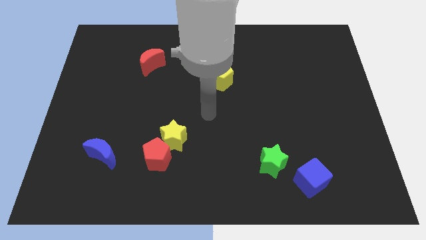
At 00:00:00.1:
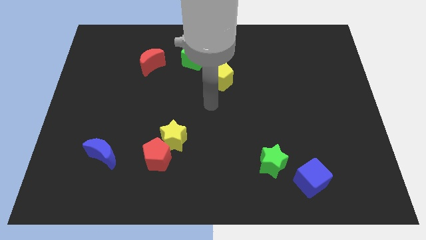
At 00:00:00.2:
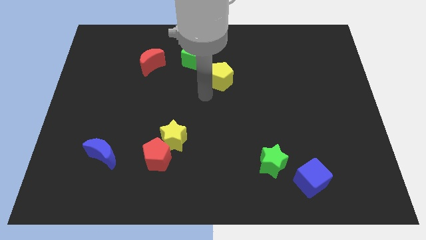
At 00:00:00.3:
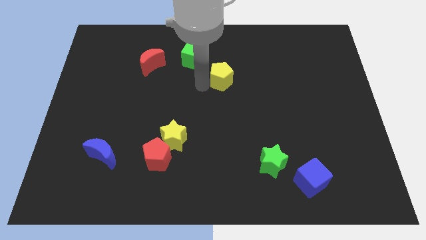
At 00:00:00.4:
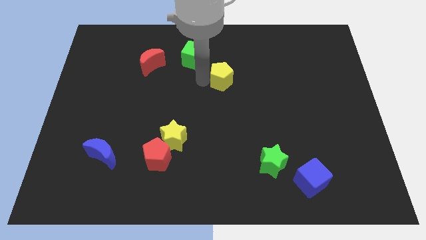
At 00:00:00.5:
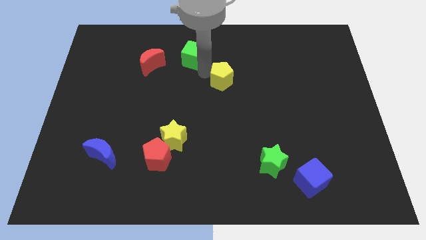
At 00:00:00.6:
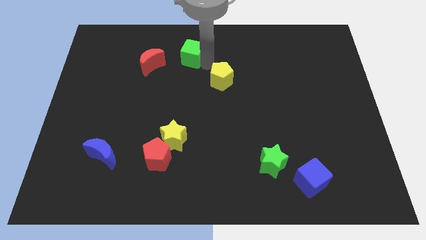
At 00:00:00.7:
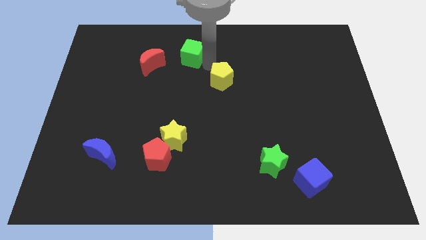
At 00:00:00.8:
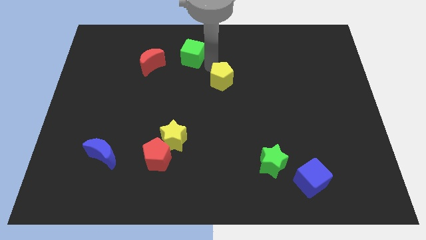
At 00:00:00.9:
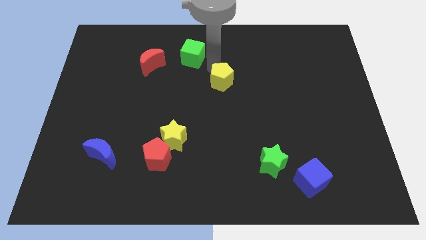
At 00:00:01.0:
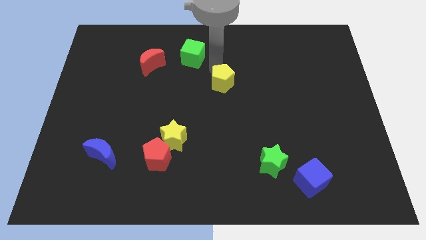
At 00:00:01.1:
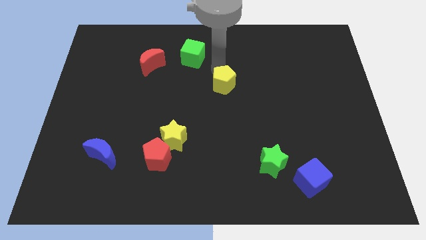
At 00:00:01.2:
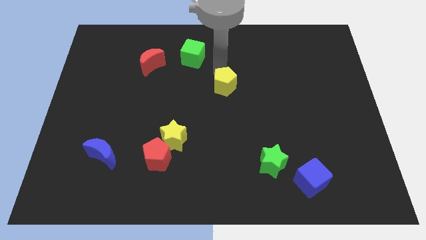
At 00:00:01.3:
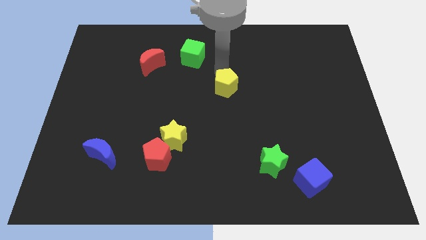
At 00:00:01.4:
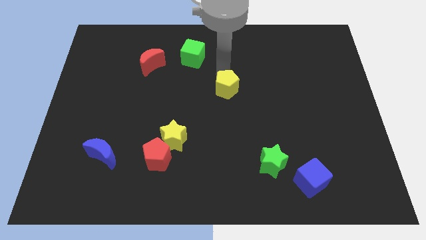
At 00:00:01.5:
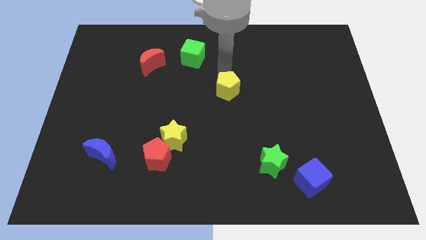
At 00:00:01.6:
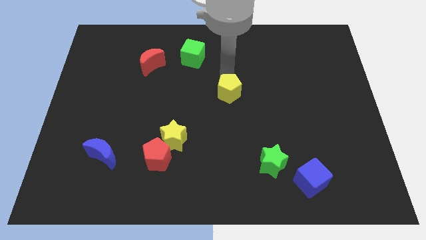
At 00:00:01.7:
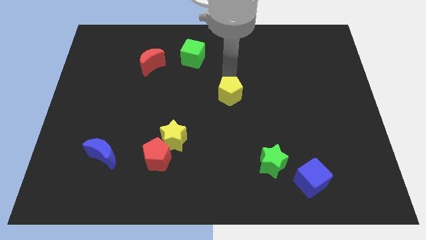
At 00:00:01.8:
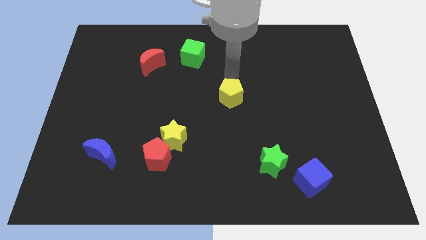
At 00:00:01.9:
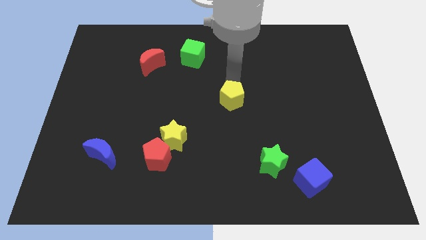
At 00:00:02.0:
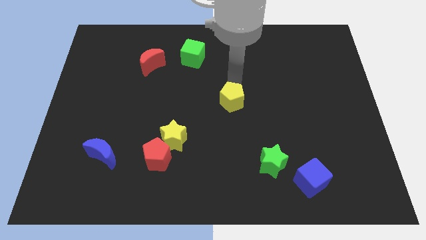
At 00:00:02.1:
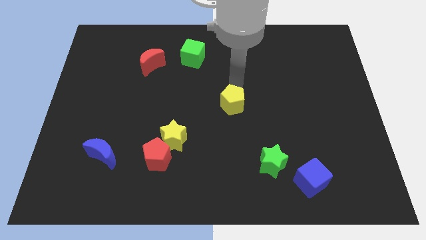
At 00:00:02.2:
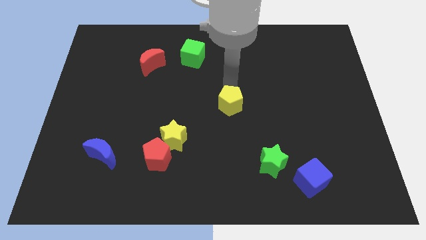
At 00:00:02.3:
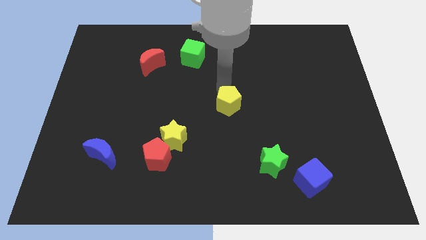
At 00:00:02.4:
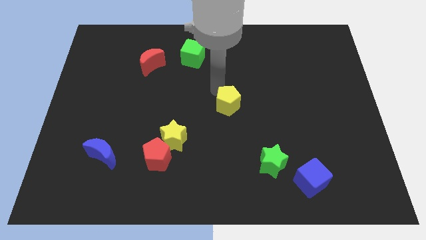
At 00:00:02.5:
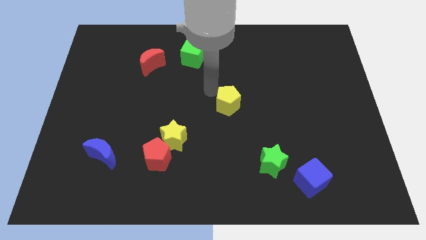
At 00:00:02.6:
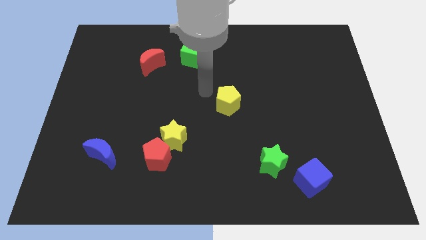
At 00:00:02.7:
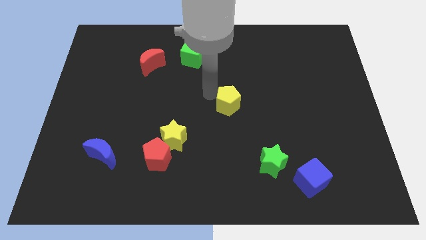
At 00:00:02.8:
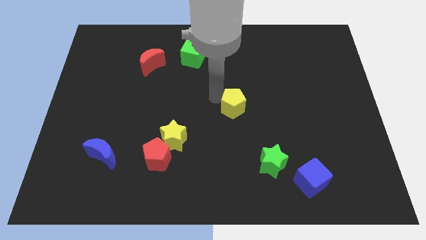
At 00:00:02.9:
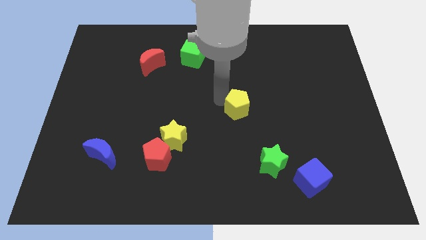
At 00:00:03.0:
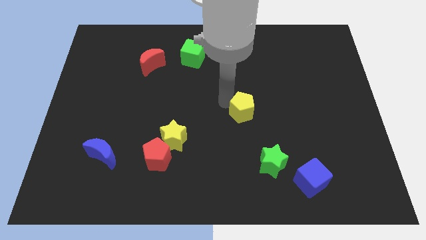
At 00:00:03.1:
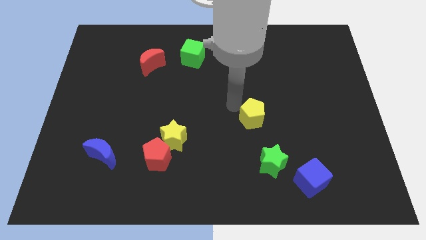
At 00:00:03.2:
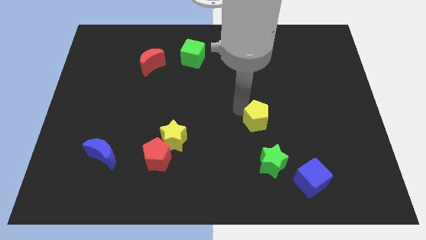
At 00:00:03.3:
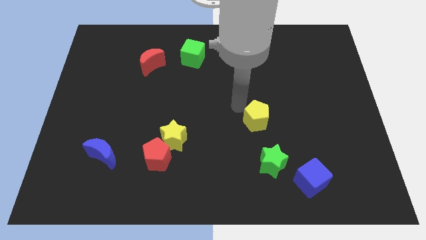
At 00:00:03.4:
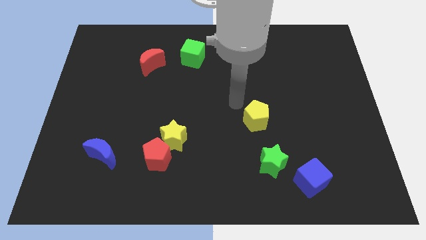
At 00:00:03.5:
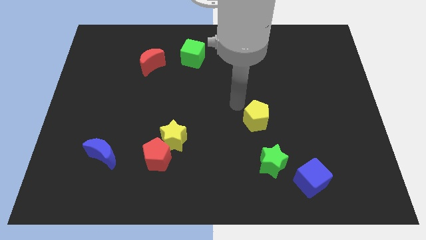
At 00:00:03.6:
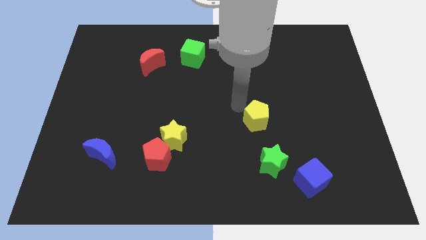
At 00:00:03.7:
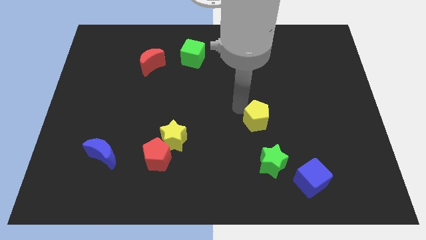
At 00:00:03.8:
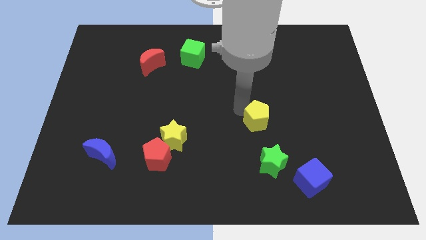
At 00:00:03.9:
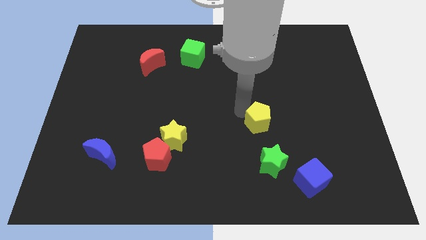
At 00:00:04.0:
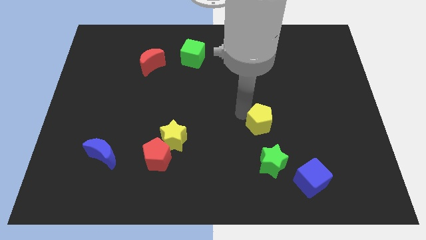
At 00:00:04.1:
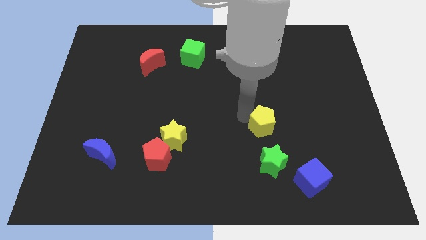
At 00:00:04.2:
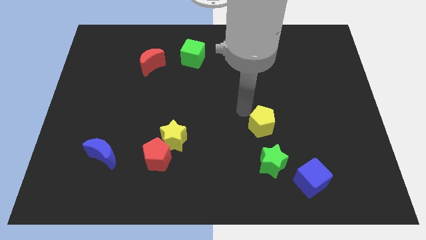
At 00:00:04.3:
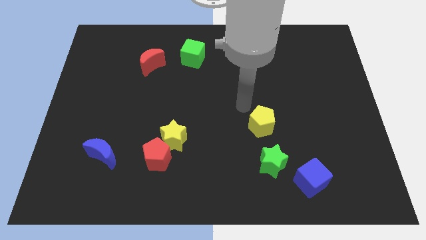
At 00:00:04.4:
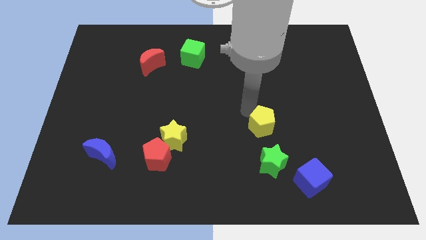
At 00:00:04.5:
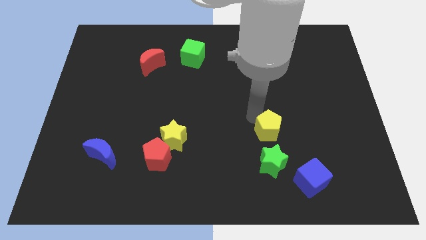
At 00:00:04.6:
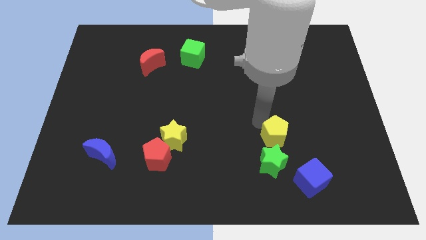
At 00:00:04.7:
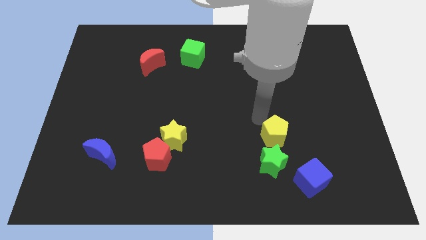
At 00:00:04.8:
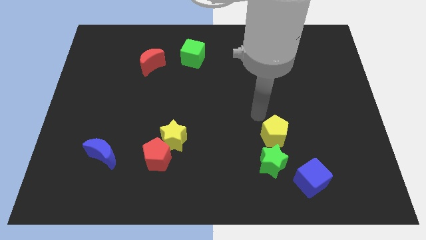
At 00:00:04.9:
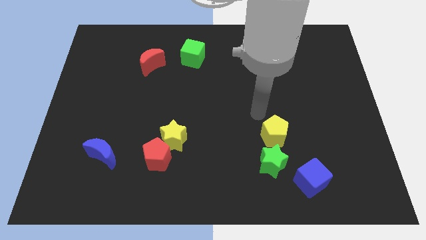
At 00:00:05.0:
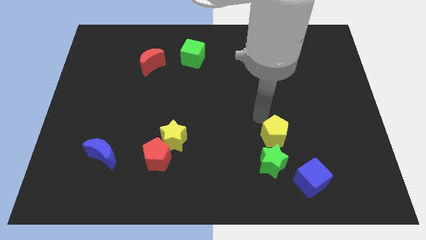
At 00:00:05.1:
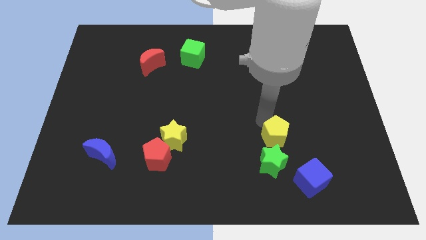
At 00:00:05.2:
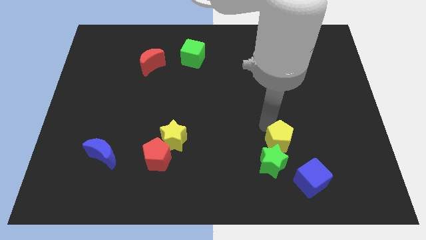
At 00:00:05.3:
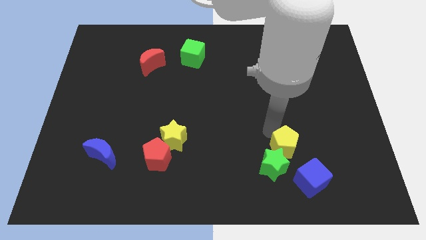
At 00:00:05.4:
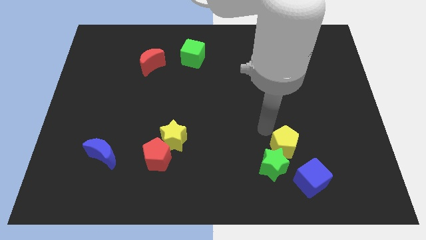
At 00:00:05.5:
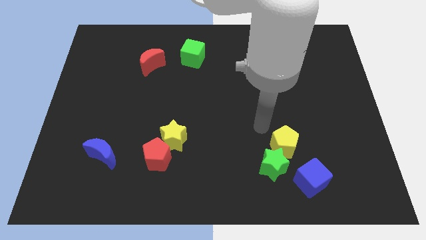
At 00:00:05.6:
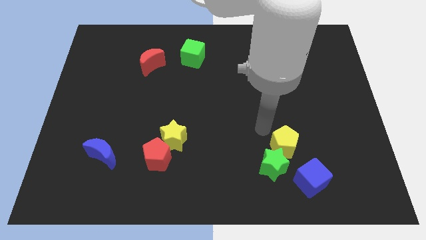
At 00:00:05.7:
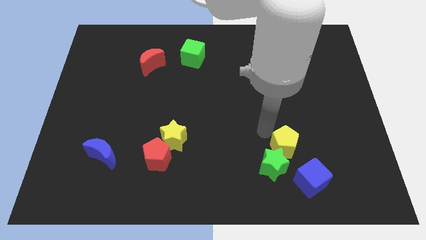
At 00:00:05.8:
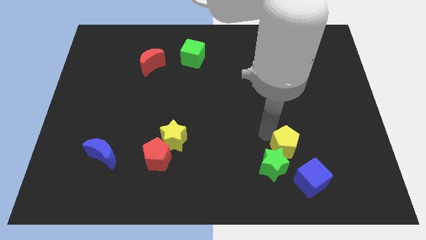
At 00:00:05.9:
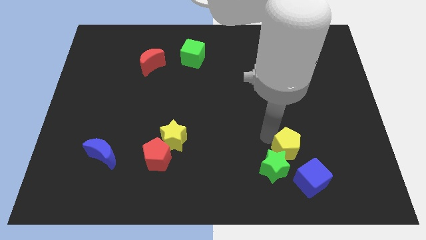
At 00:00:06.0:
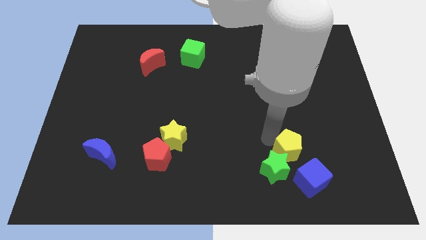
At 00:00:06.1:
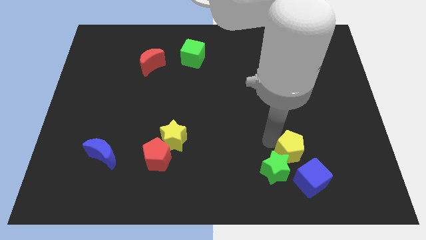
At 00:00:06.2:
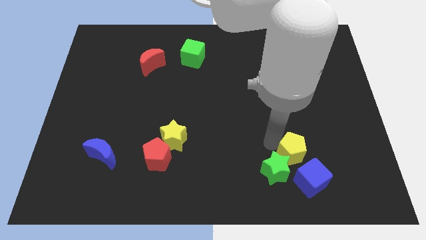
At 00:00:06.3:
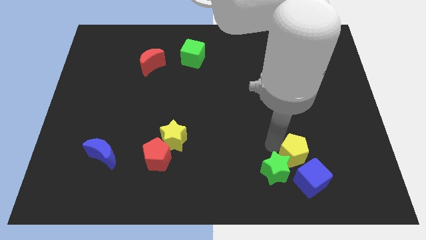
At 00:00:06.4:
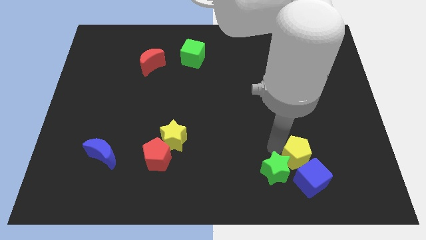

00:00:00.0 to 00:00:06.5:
put the yellow pentagon next to the blue cube
